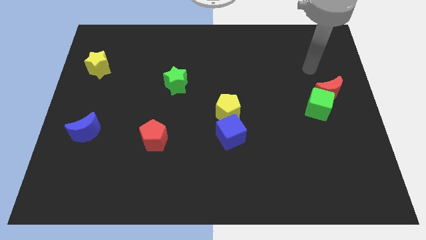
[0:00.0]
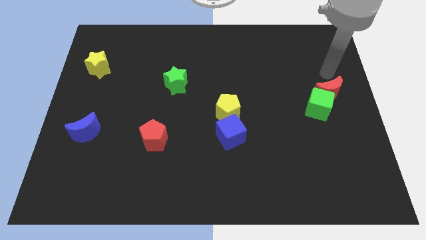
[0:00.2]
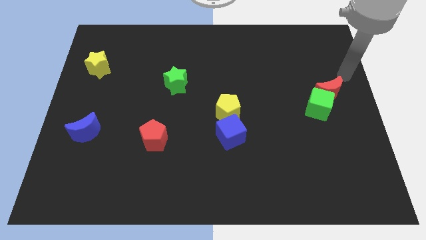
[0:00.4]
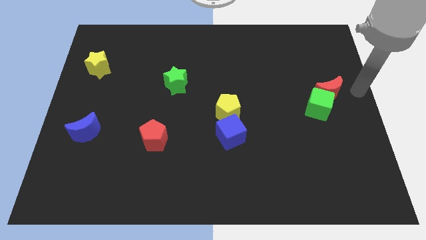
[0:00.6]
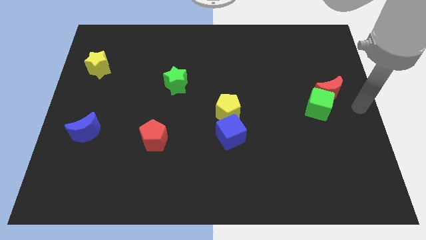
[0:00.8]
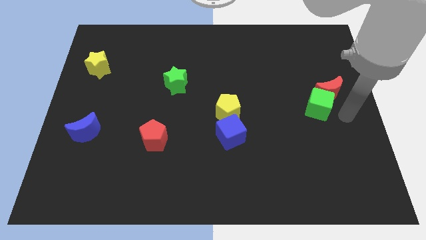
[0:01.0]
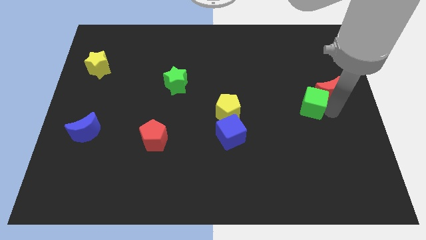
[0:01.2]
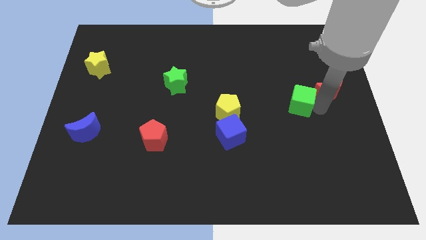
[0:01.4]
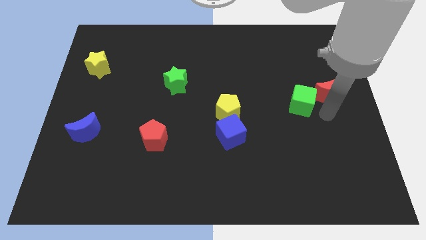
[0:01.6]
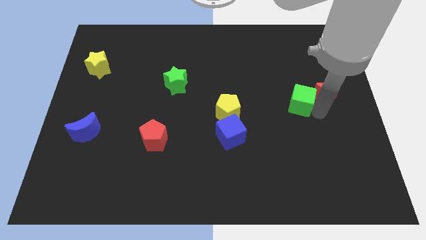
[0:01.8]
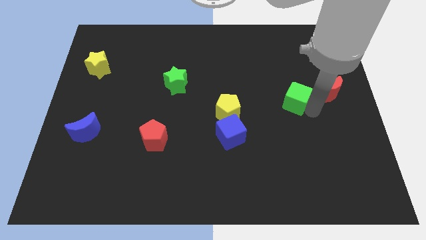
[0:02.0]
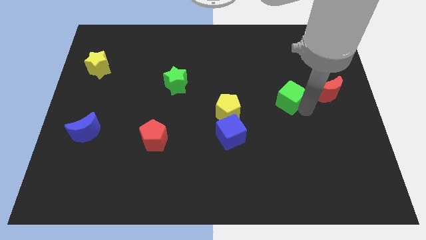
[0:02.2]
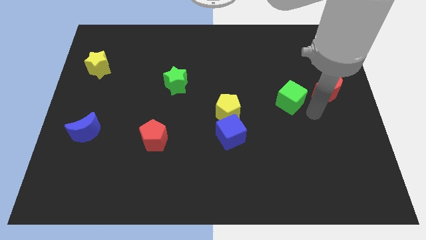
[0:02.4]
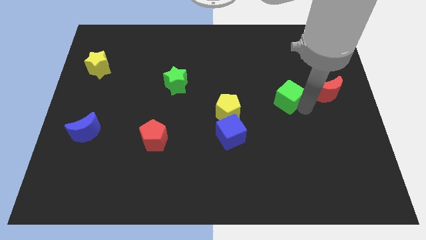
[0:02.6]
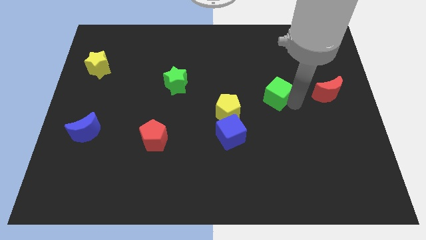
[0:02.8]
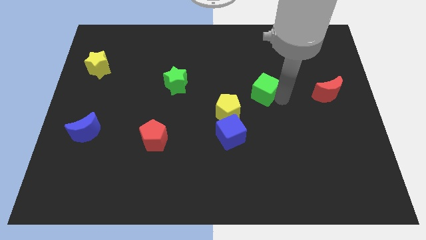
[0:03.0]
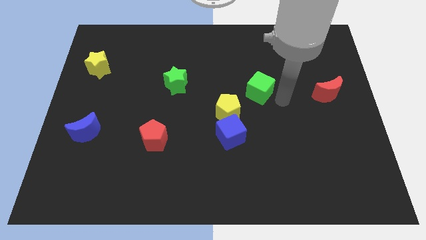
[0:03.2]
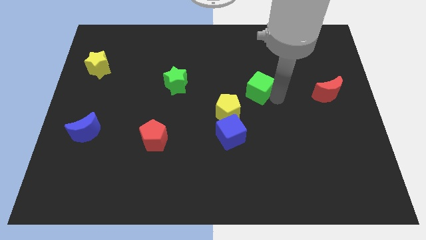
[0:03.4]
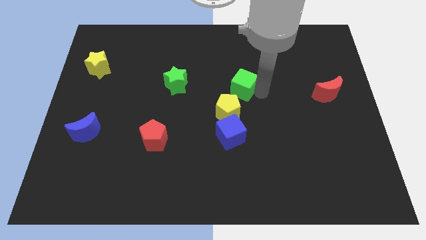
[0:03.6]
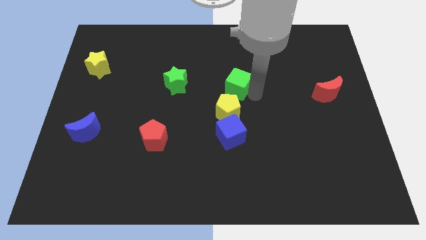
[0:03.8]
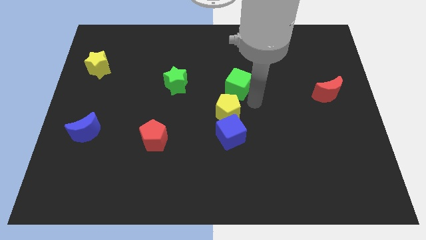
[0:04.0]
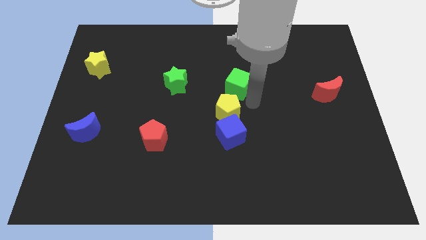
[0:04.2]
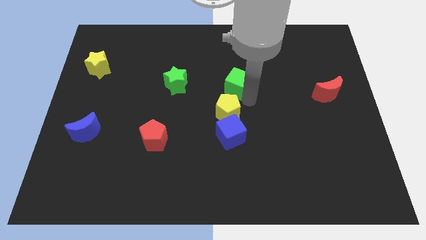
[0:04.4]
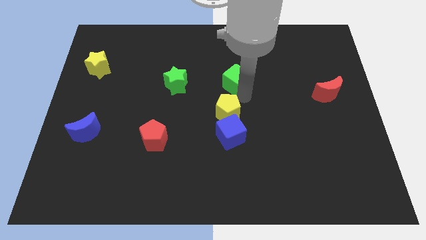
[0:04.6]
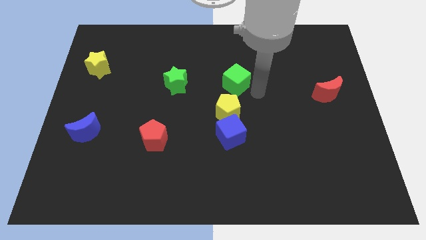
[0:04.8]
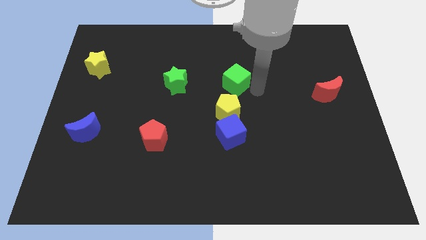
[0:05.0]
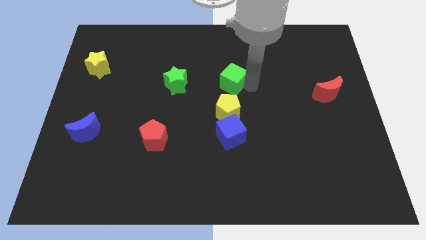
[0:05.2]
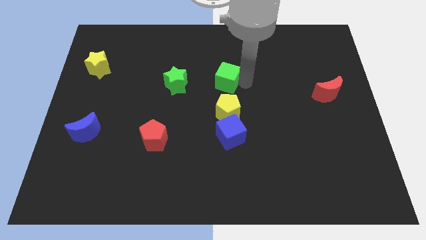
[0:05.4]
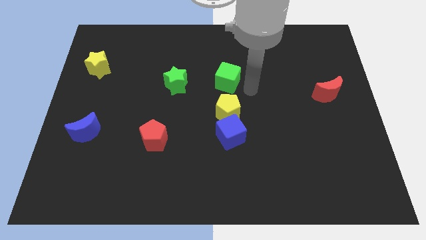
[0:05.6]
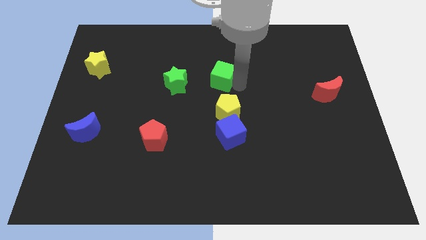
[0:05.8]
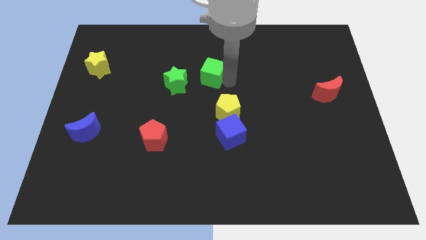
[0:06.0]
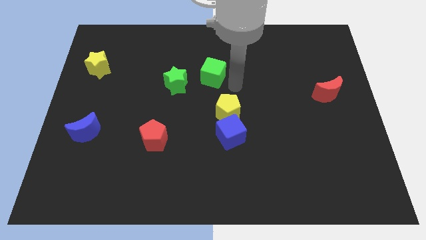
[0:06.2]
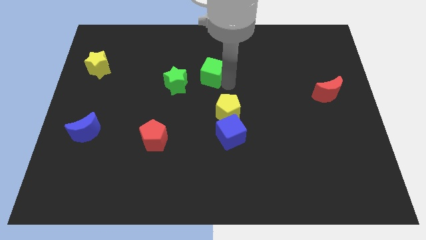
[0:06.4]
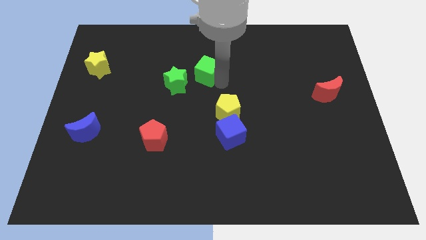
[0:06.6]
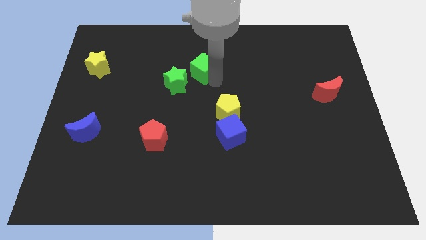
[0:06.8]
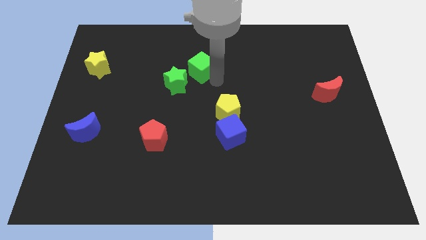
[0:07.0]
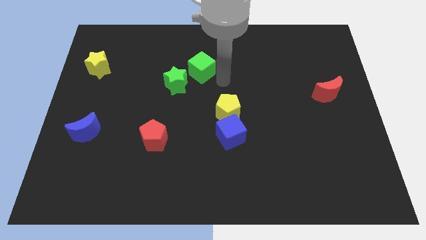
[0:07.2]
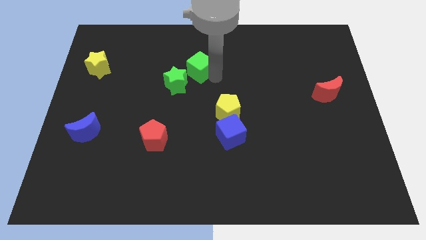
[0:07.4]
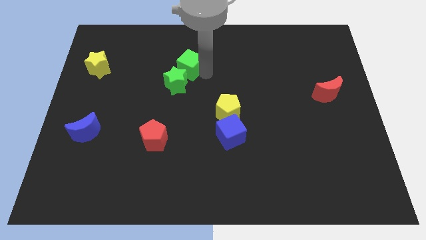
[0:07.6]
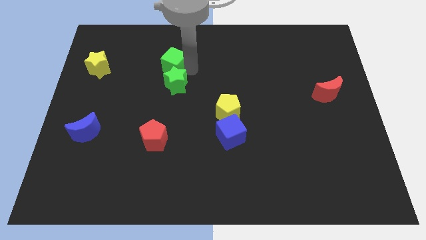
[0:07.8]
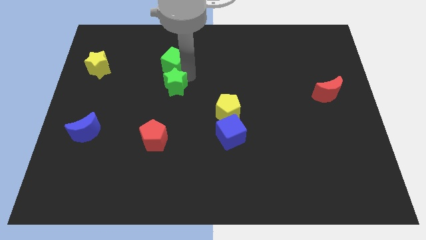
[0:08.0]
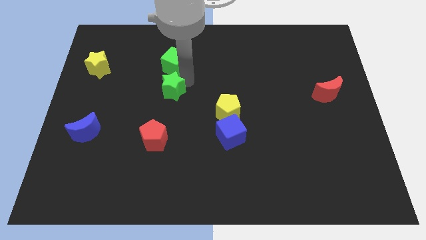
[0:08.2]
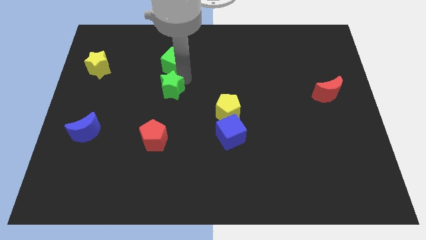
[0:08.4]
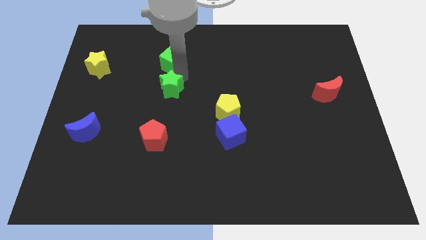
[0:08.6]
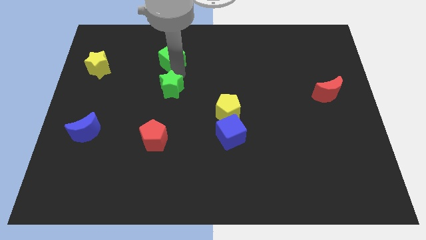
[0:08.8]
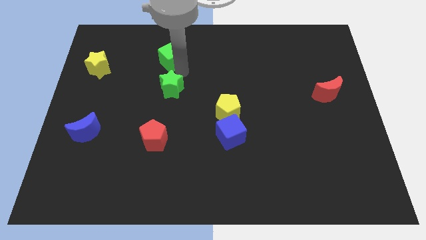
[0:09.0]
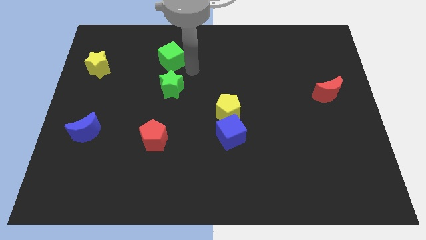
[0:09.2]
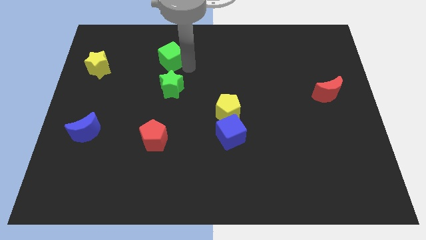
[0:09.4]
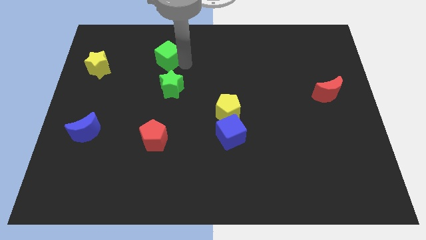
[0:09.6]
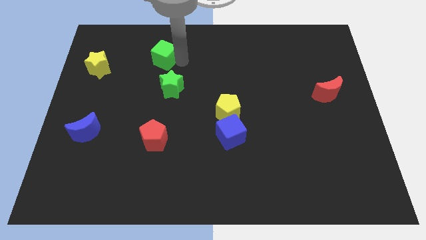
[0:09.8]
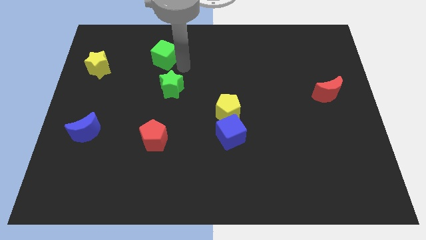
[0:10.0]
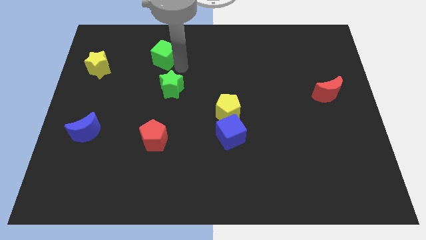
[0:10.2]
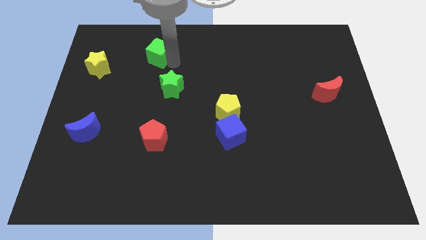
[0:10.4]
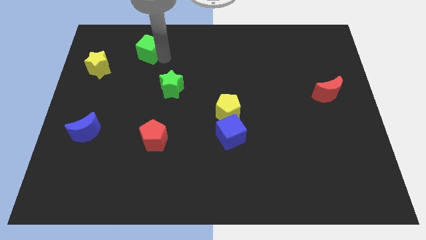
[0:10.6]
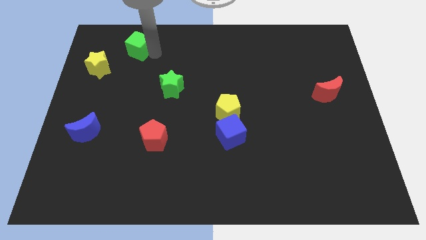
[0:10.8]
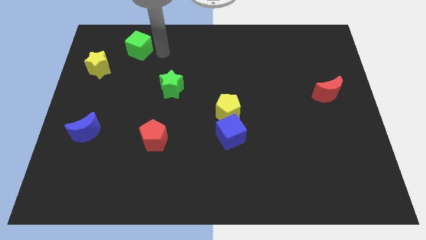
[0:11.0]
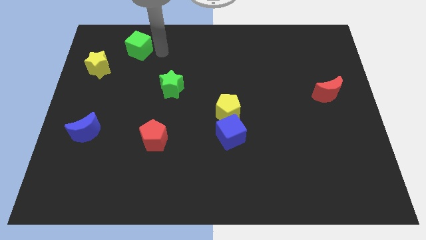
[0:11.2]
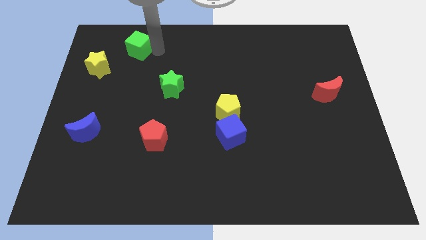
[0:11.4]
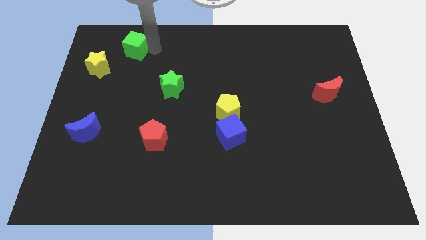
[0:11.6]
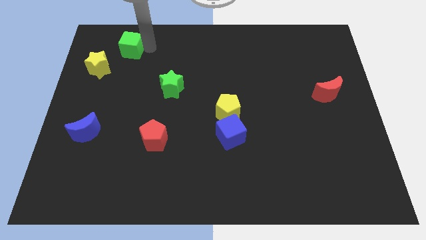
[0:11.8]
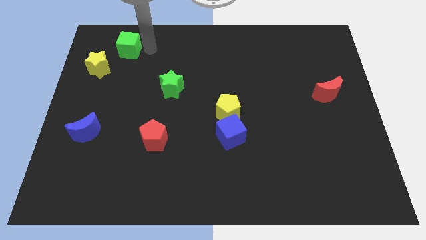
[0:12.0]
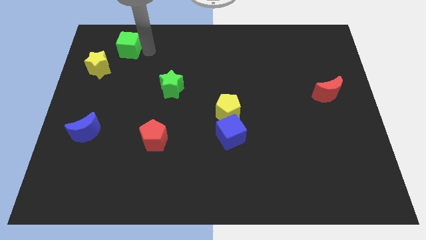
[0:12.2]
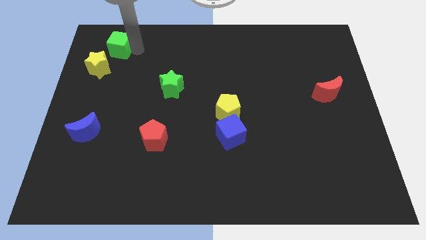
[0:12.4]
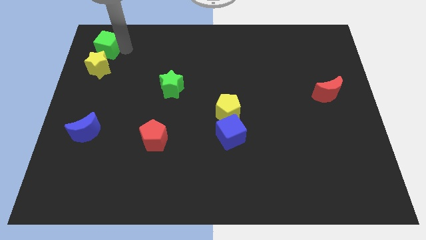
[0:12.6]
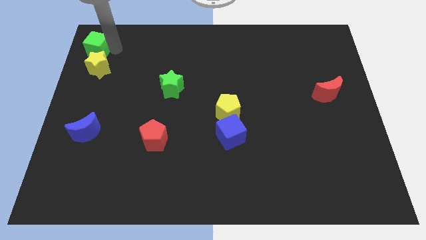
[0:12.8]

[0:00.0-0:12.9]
move the green cube to the top left corner

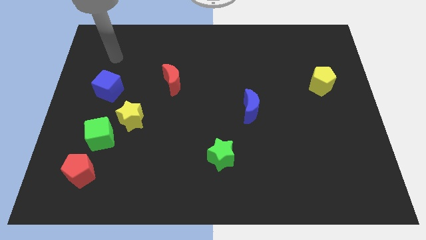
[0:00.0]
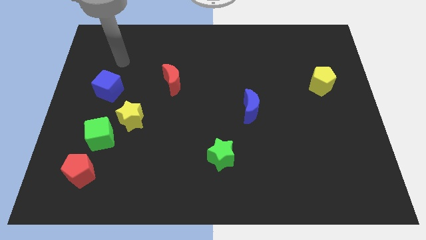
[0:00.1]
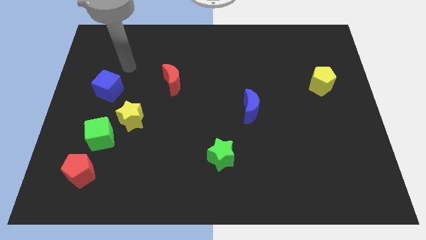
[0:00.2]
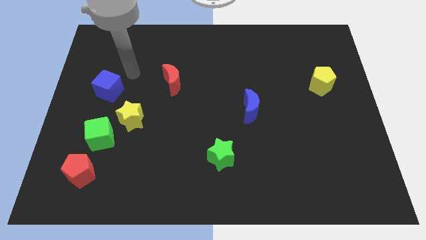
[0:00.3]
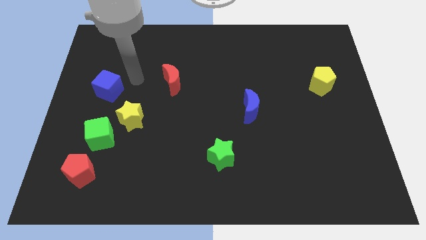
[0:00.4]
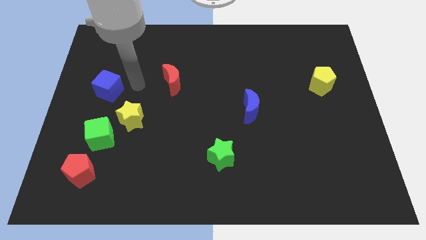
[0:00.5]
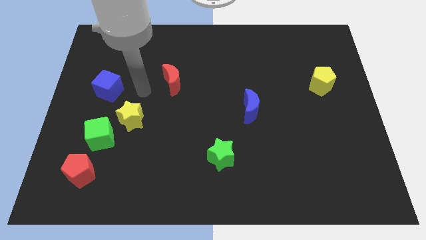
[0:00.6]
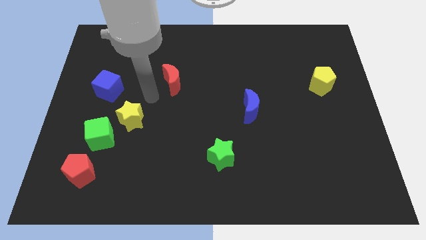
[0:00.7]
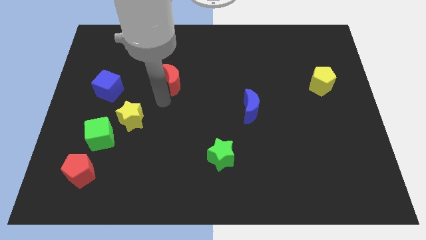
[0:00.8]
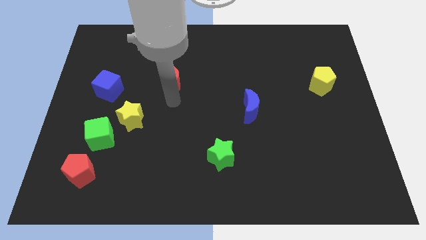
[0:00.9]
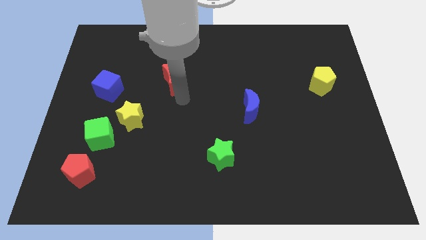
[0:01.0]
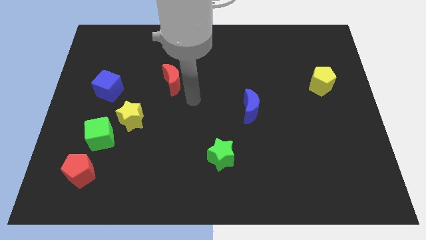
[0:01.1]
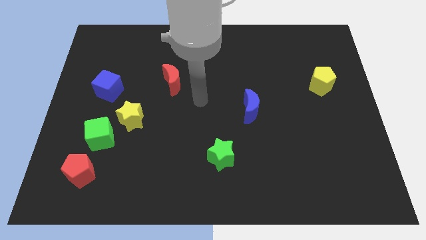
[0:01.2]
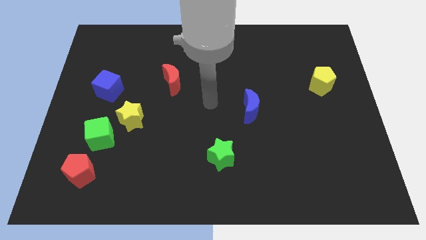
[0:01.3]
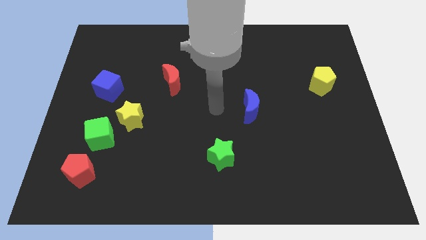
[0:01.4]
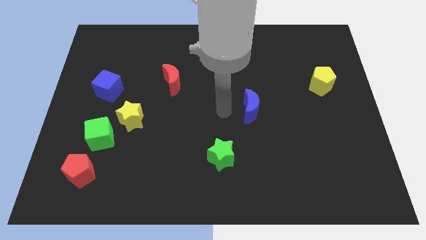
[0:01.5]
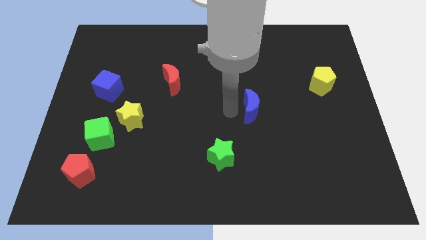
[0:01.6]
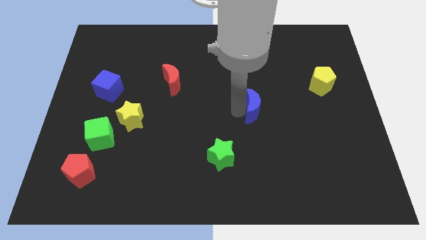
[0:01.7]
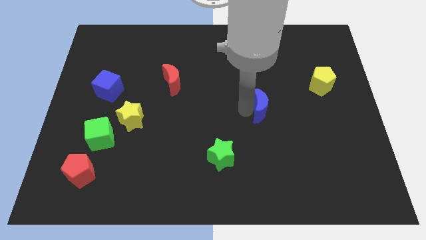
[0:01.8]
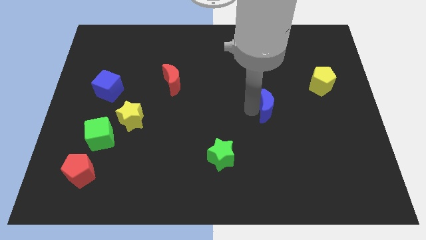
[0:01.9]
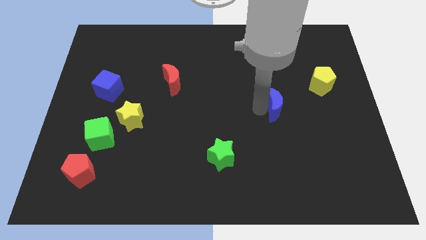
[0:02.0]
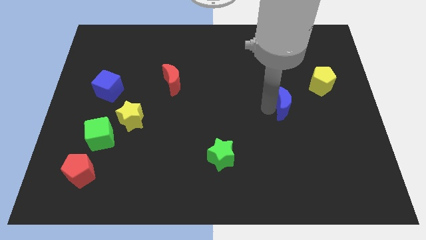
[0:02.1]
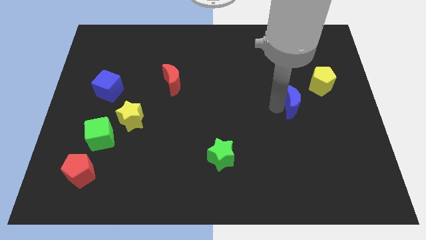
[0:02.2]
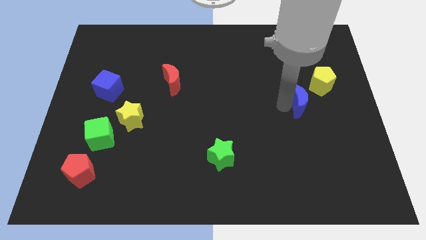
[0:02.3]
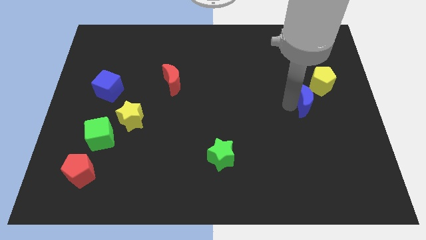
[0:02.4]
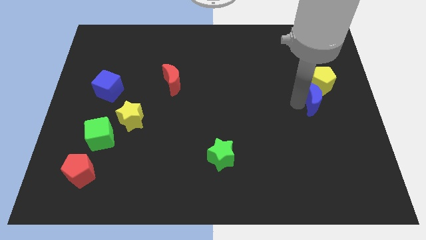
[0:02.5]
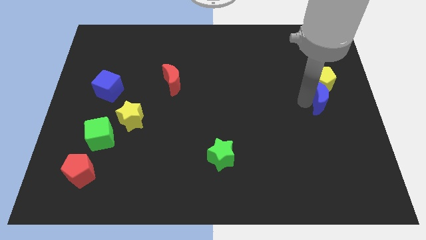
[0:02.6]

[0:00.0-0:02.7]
put the blue moon to the right side
